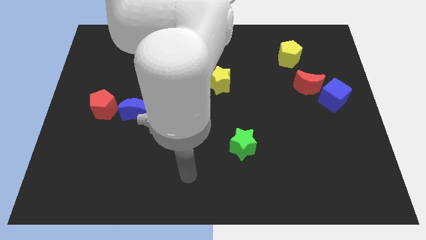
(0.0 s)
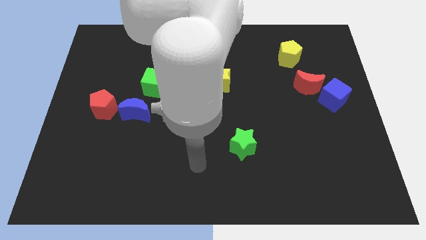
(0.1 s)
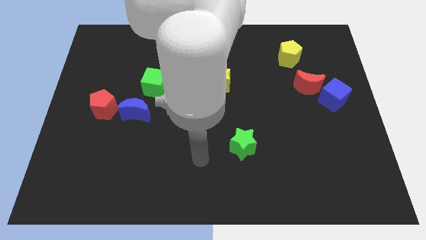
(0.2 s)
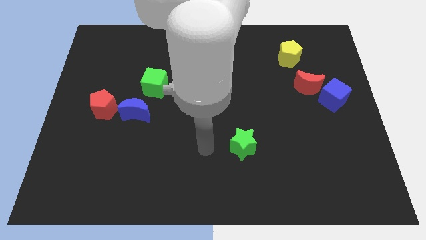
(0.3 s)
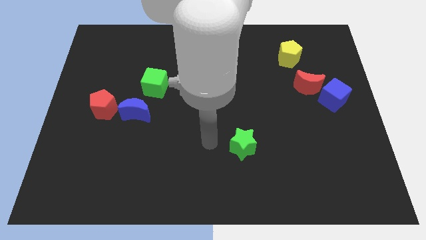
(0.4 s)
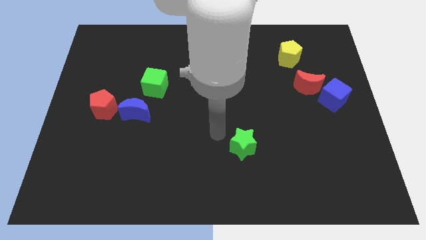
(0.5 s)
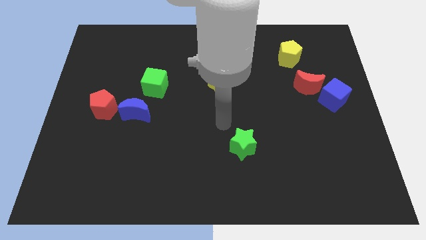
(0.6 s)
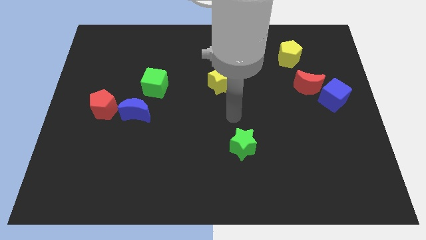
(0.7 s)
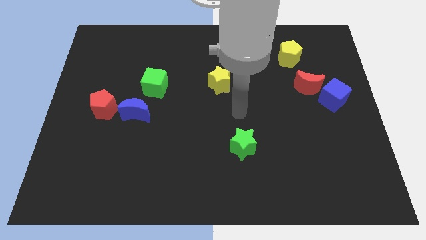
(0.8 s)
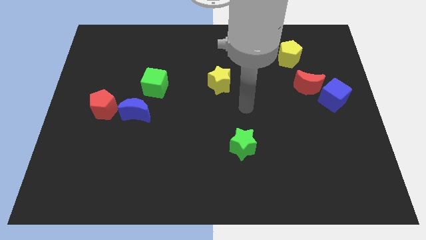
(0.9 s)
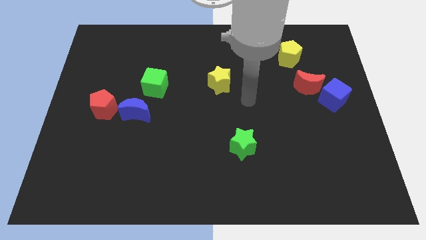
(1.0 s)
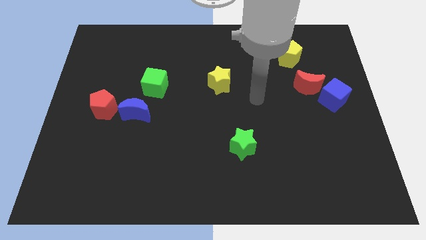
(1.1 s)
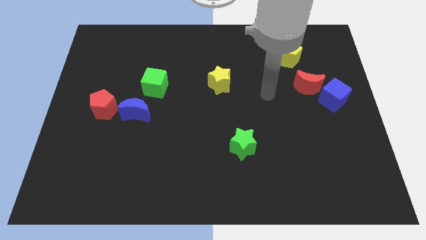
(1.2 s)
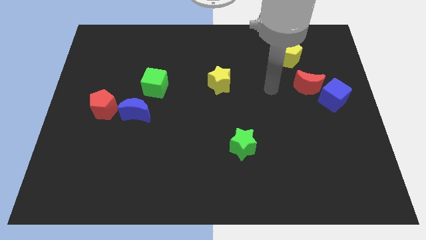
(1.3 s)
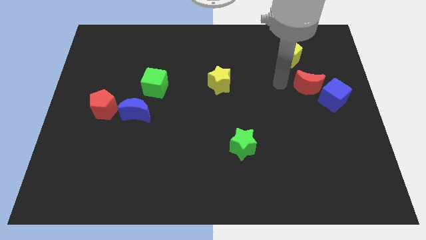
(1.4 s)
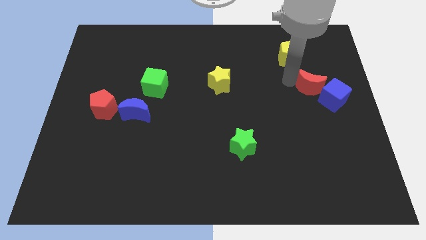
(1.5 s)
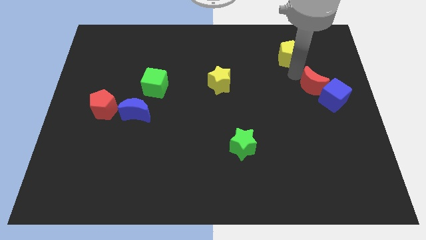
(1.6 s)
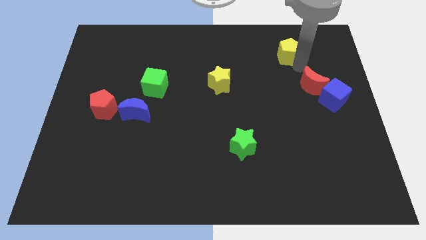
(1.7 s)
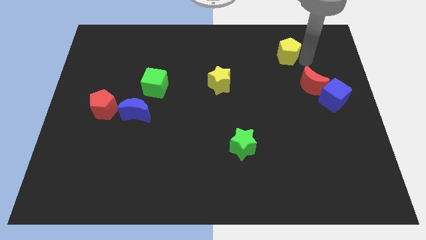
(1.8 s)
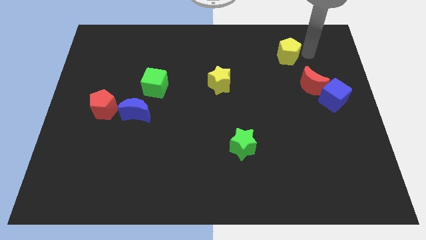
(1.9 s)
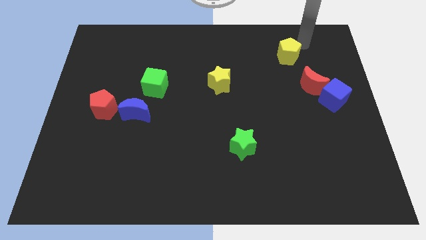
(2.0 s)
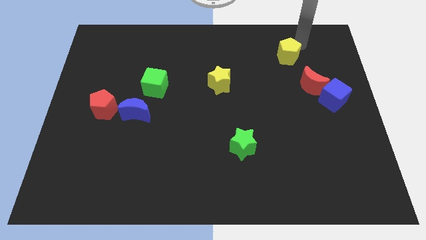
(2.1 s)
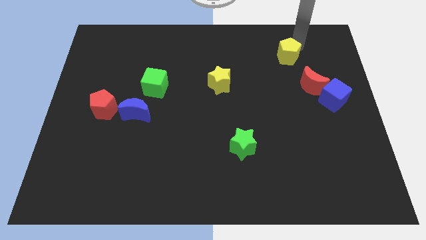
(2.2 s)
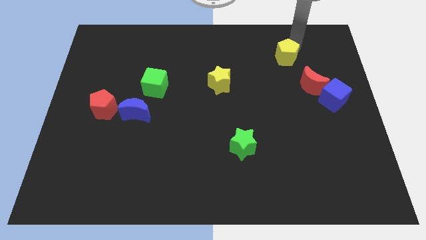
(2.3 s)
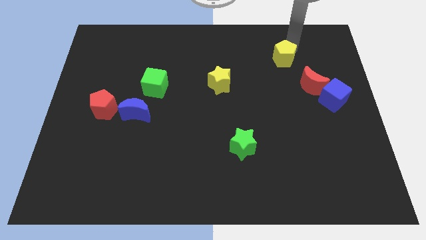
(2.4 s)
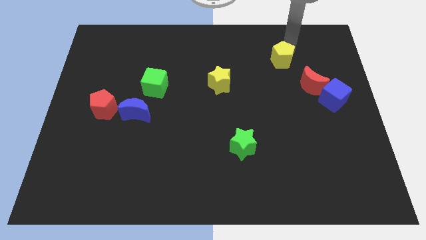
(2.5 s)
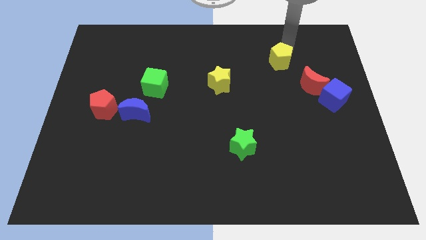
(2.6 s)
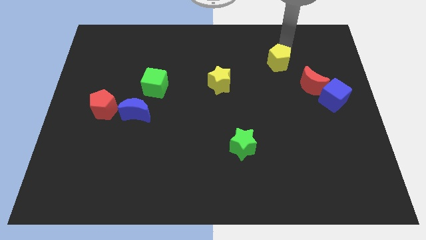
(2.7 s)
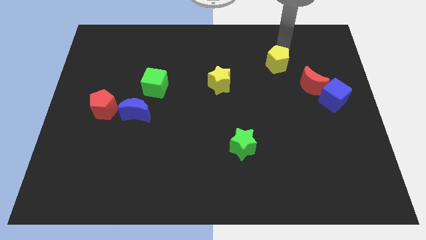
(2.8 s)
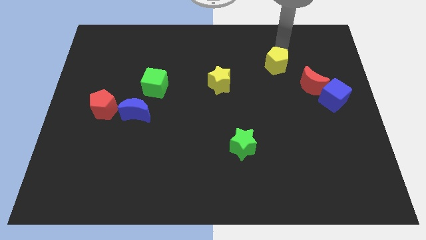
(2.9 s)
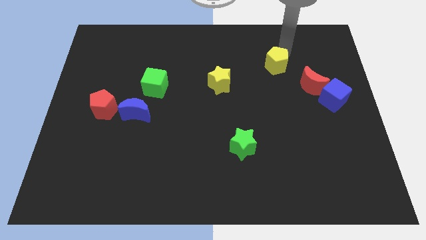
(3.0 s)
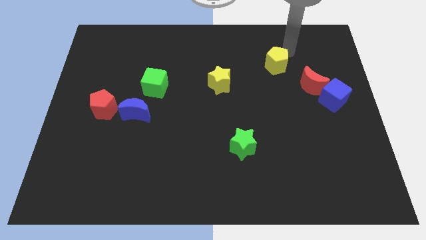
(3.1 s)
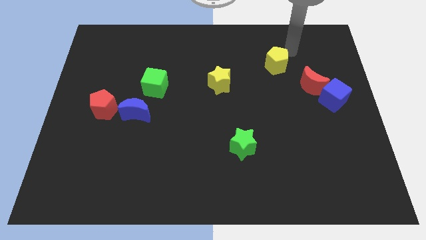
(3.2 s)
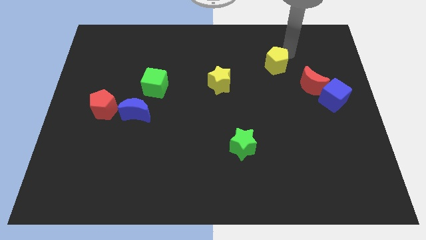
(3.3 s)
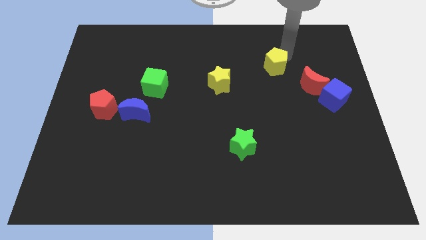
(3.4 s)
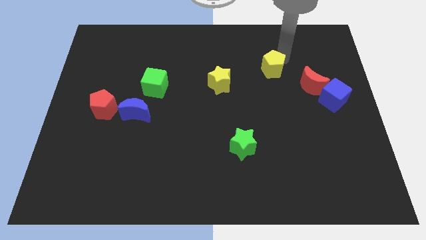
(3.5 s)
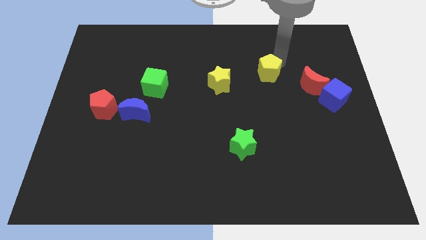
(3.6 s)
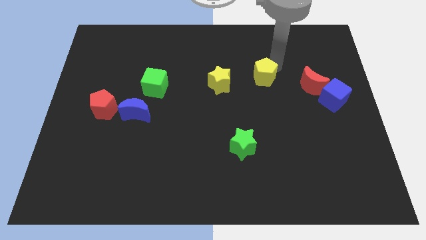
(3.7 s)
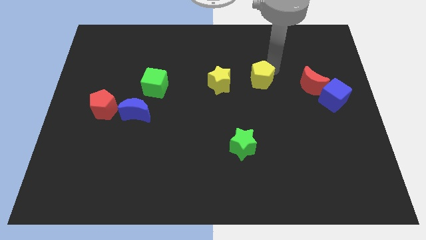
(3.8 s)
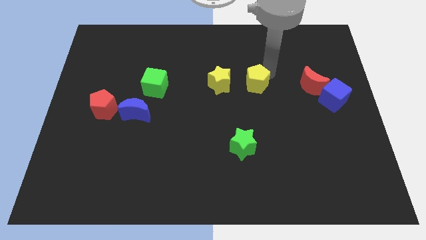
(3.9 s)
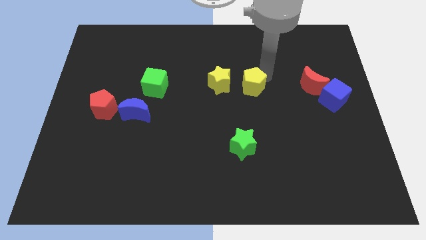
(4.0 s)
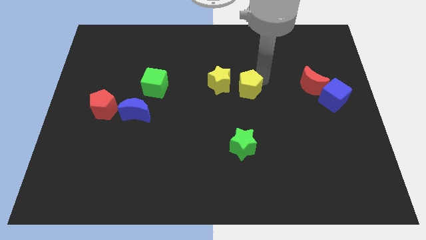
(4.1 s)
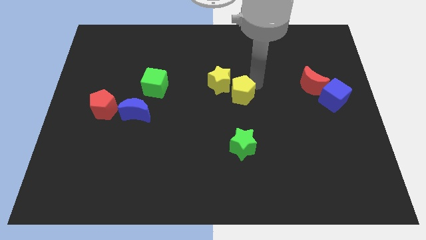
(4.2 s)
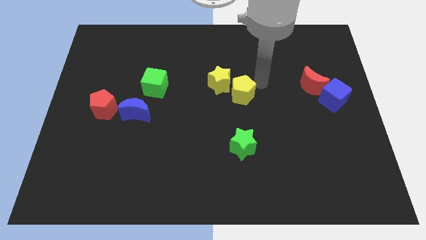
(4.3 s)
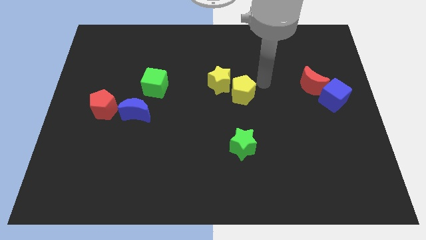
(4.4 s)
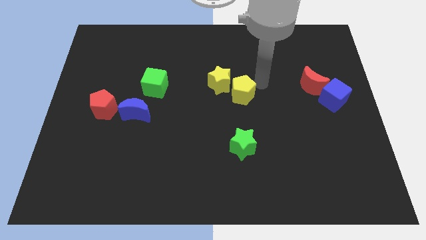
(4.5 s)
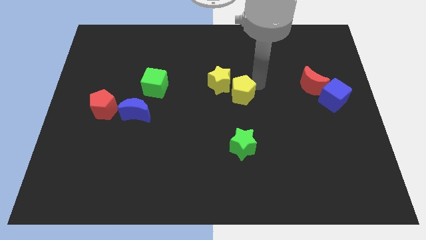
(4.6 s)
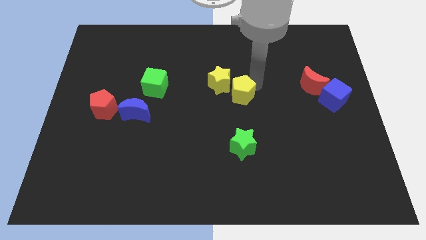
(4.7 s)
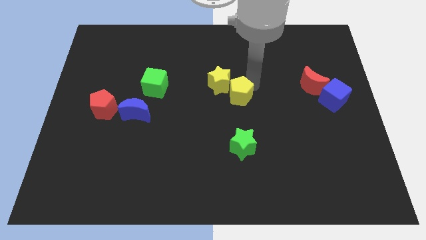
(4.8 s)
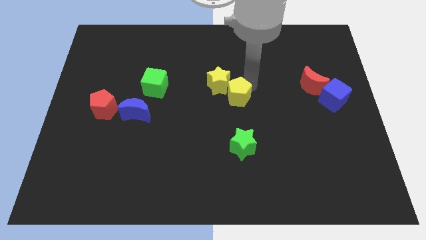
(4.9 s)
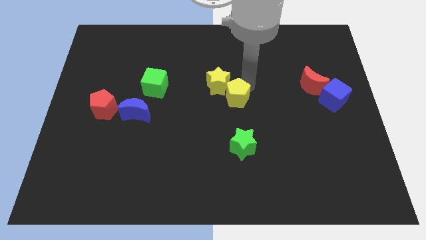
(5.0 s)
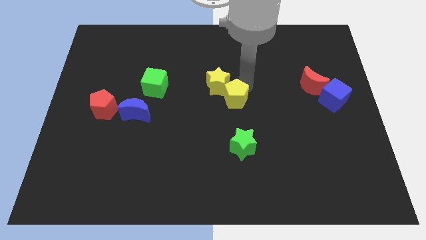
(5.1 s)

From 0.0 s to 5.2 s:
slide the yellow pentagon downwards and to the left

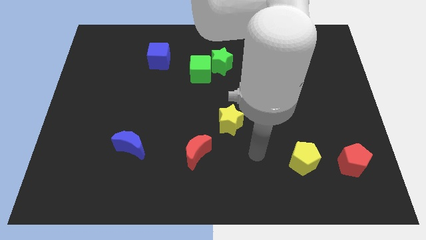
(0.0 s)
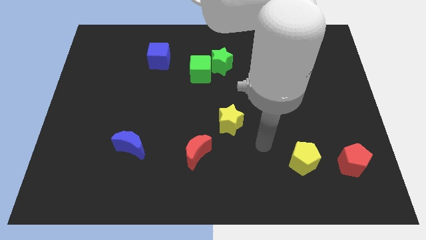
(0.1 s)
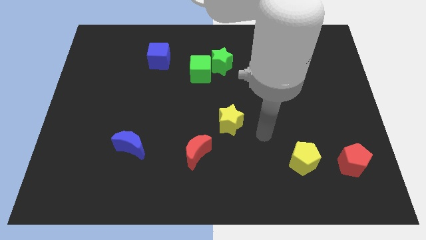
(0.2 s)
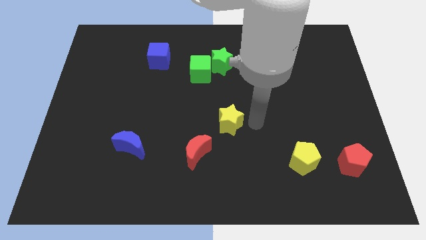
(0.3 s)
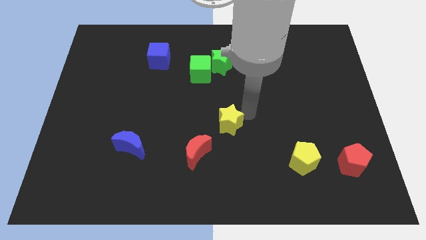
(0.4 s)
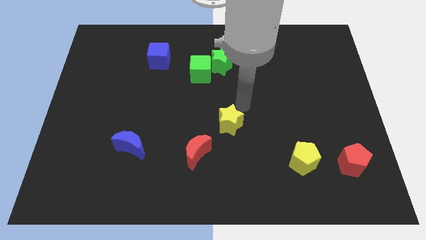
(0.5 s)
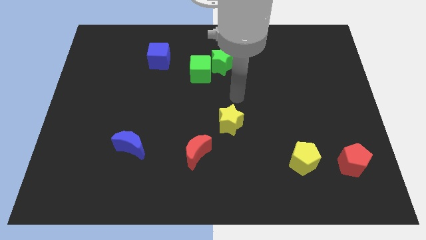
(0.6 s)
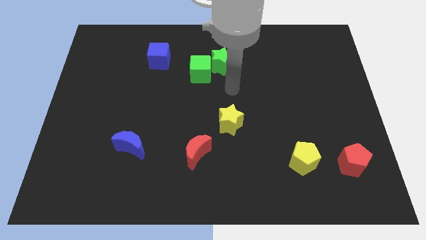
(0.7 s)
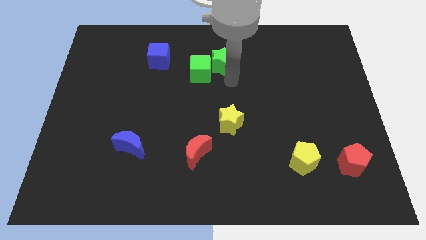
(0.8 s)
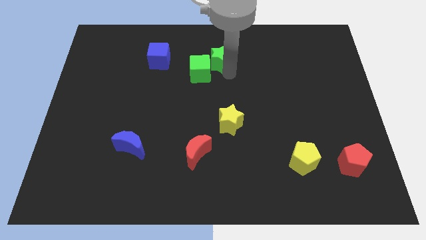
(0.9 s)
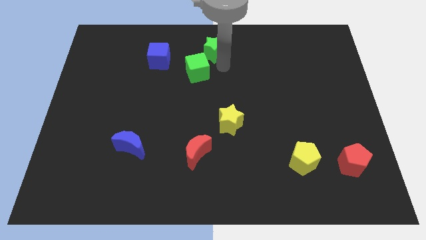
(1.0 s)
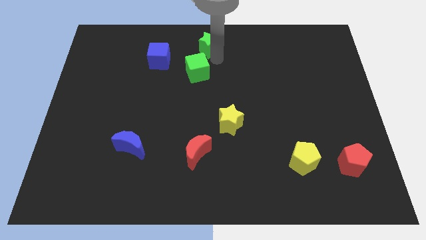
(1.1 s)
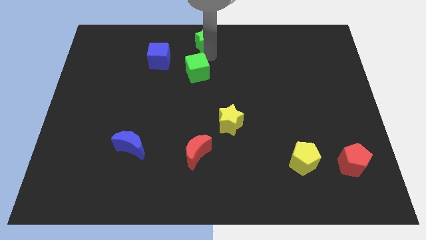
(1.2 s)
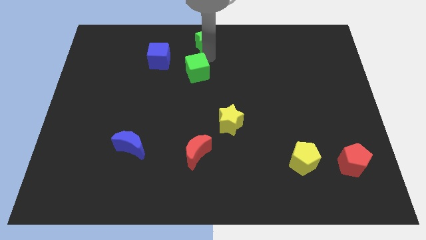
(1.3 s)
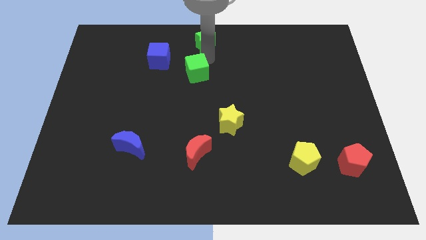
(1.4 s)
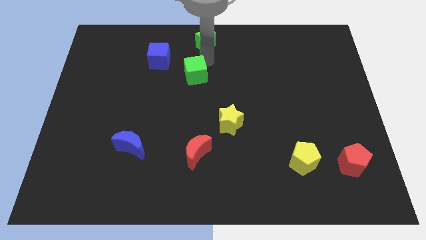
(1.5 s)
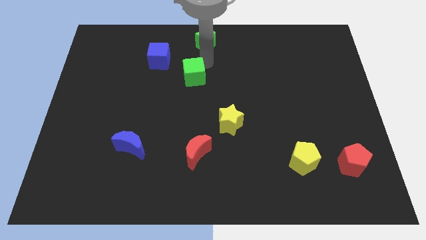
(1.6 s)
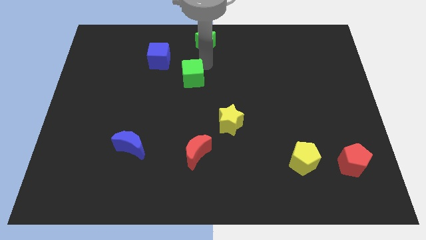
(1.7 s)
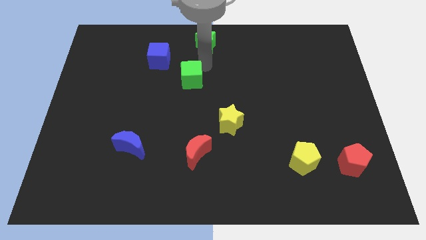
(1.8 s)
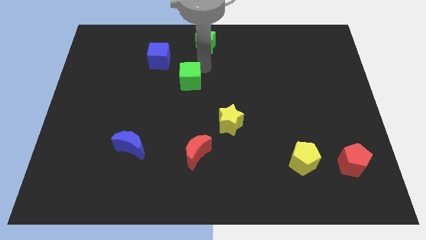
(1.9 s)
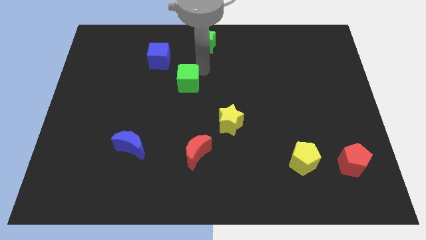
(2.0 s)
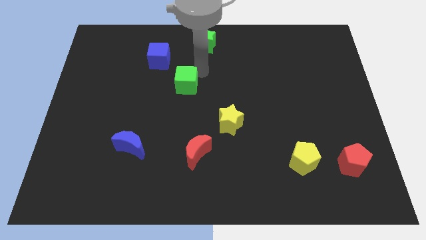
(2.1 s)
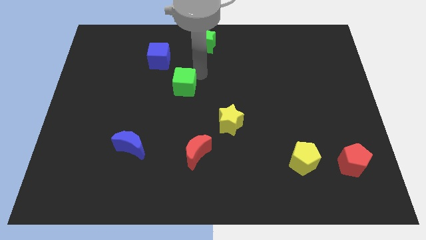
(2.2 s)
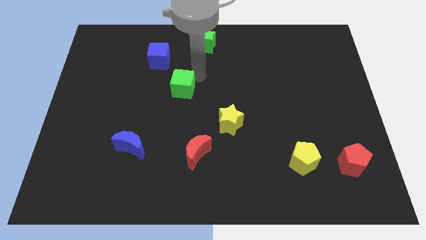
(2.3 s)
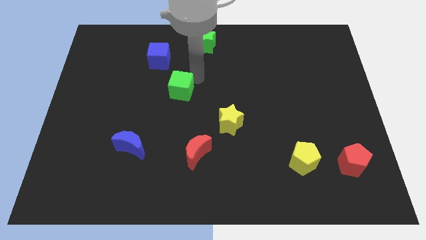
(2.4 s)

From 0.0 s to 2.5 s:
slightly slide the green cube downwards and left

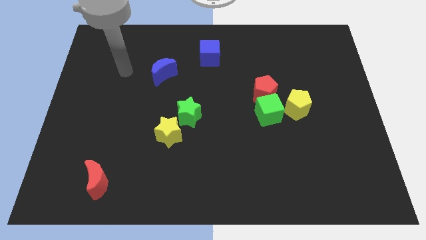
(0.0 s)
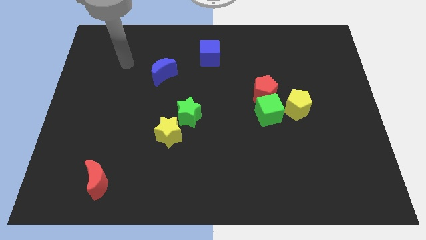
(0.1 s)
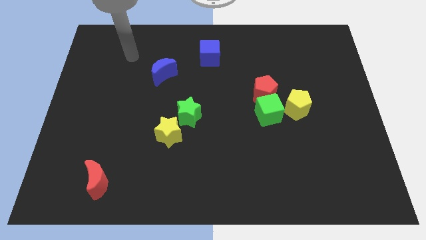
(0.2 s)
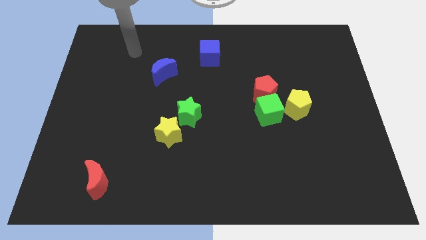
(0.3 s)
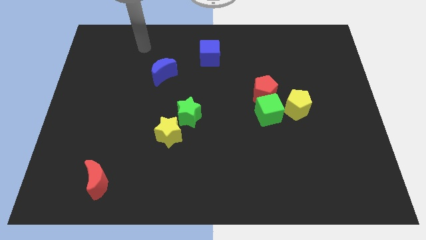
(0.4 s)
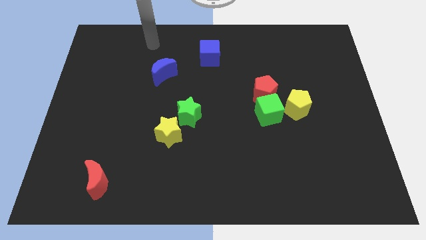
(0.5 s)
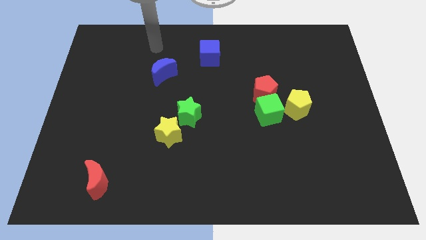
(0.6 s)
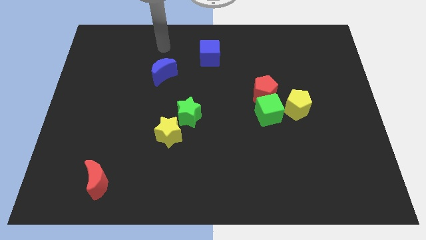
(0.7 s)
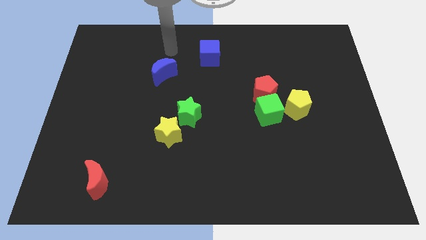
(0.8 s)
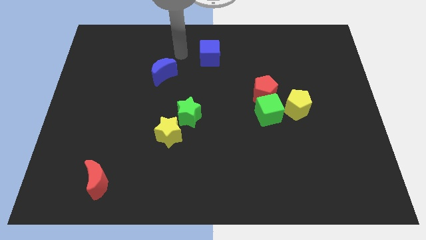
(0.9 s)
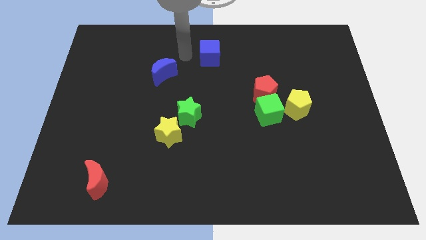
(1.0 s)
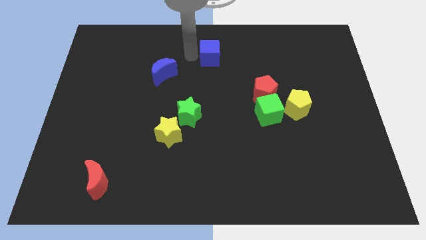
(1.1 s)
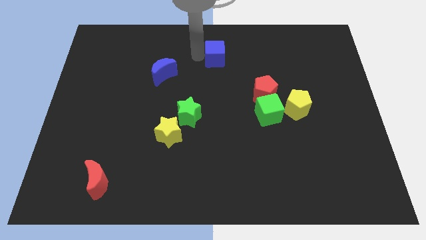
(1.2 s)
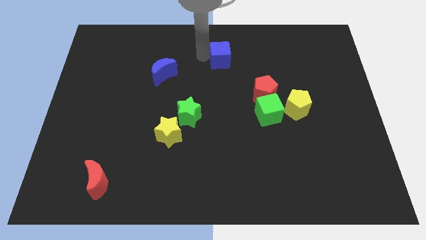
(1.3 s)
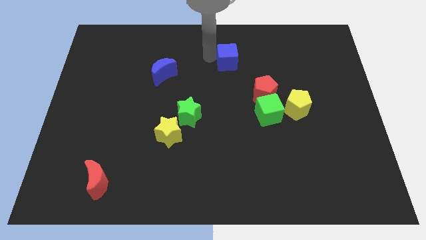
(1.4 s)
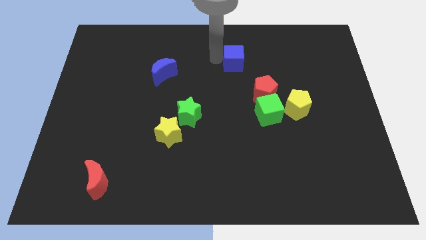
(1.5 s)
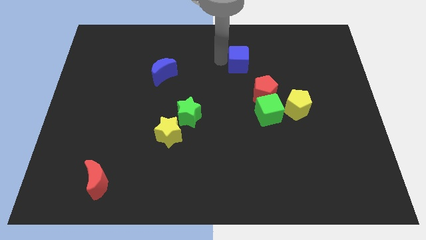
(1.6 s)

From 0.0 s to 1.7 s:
slightly slide the blue cube to the right
